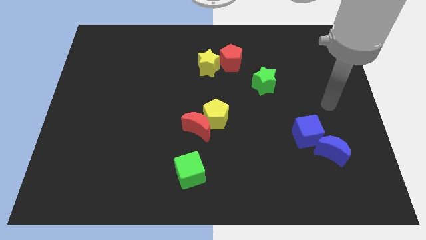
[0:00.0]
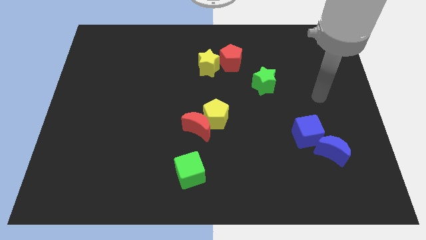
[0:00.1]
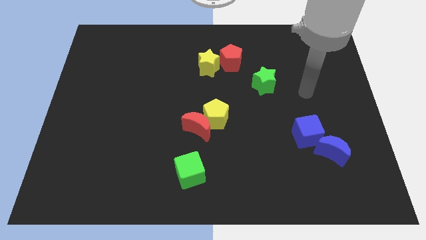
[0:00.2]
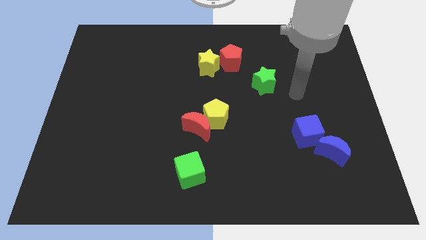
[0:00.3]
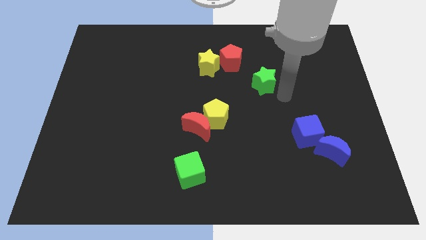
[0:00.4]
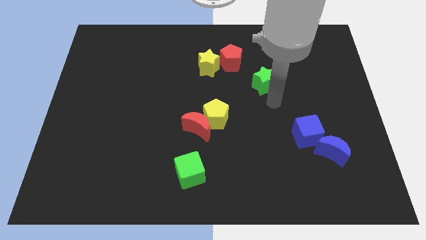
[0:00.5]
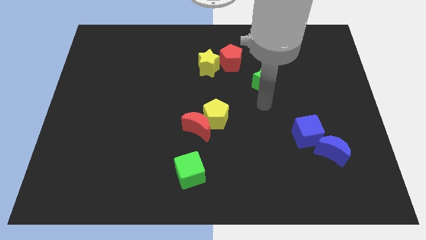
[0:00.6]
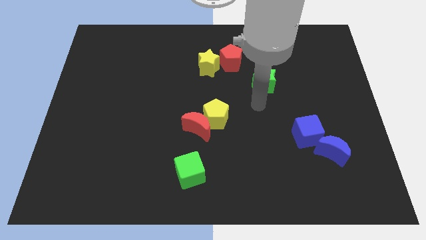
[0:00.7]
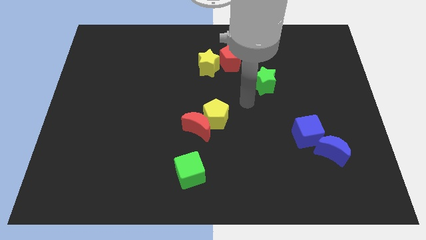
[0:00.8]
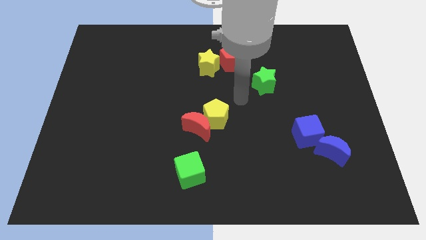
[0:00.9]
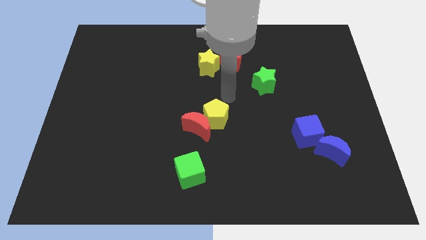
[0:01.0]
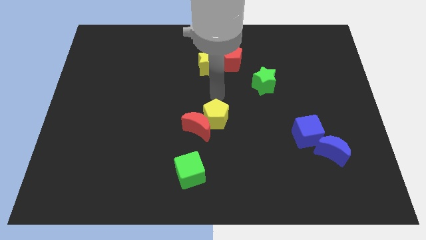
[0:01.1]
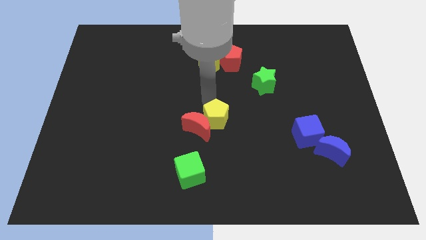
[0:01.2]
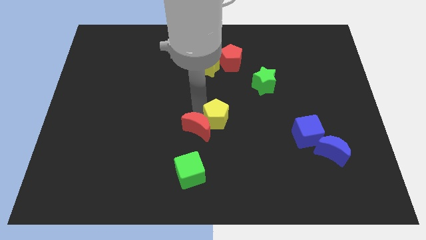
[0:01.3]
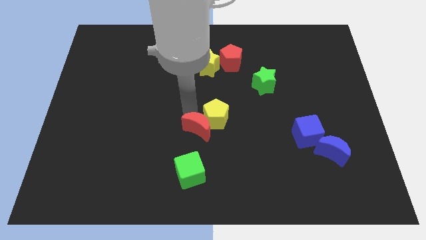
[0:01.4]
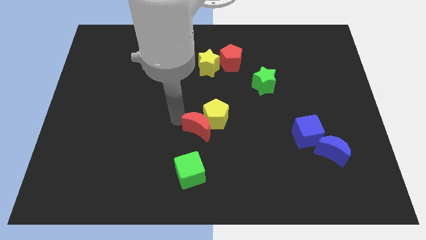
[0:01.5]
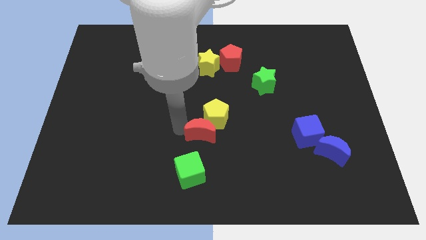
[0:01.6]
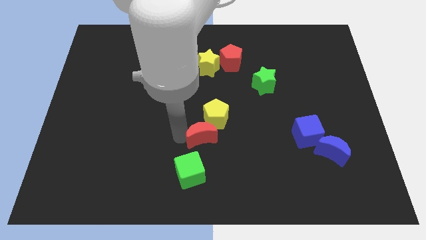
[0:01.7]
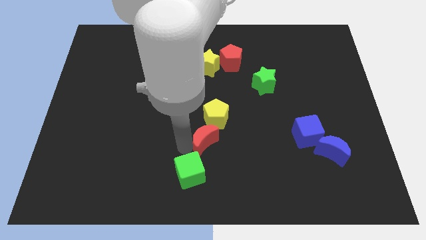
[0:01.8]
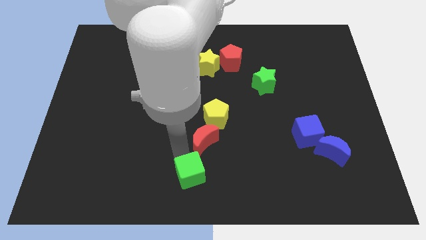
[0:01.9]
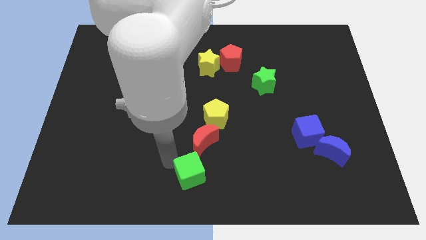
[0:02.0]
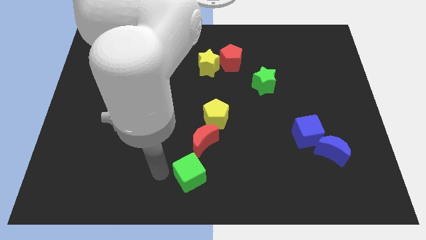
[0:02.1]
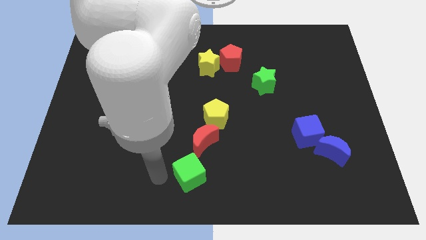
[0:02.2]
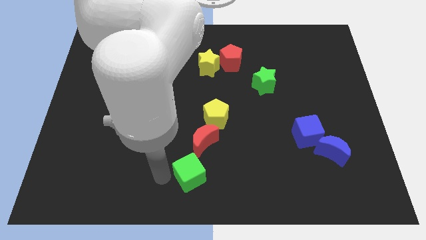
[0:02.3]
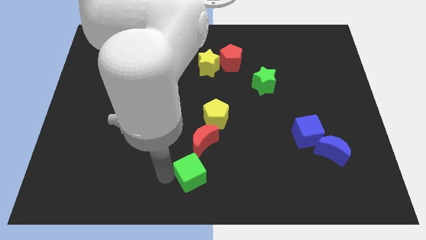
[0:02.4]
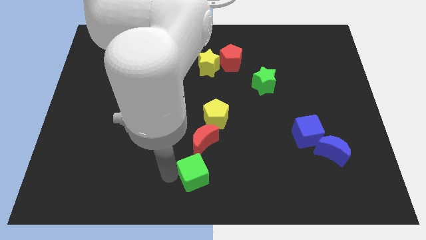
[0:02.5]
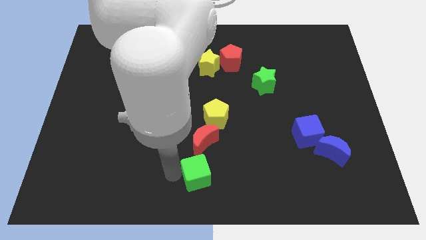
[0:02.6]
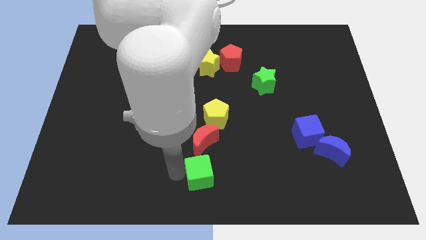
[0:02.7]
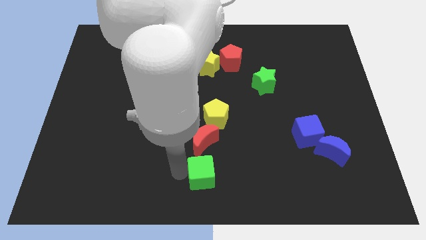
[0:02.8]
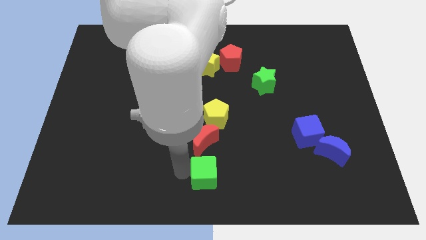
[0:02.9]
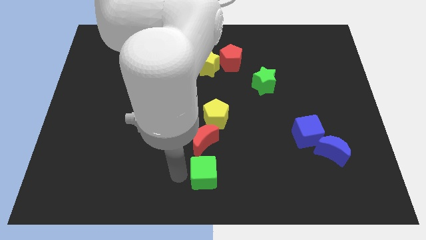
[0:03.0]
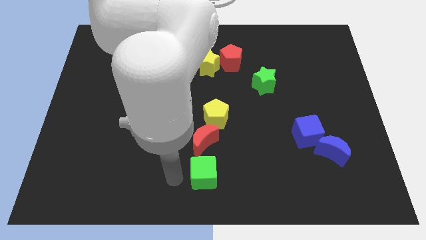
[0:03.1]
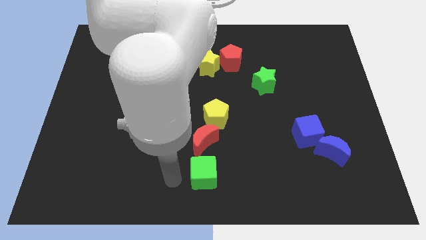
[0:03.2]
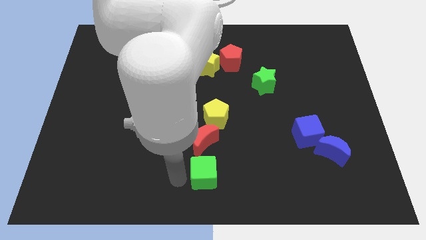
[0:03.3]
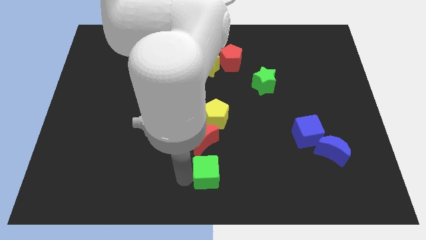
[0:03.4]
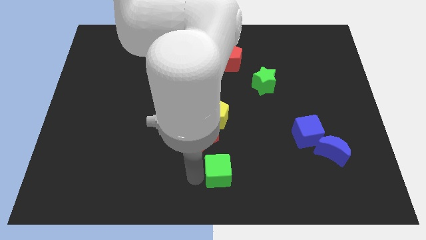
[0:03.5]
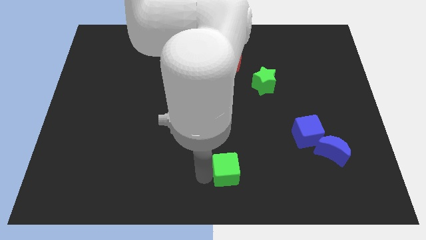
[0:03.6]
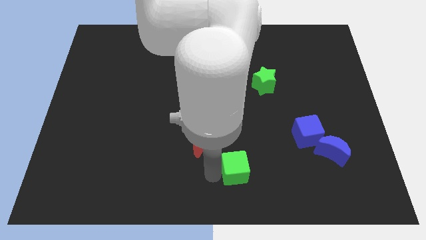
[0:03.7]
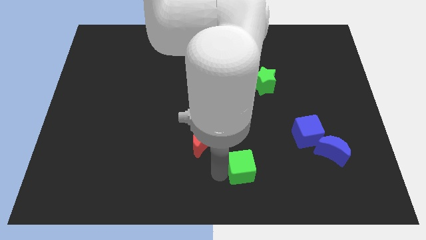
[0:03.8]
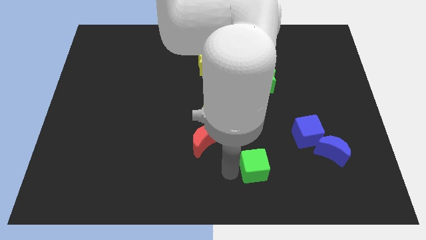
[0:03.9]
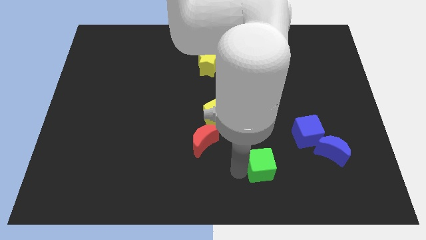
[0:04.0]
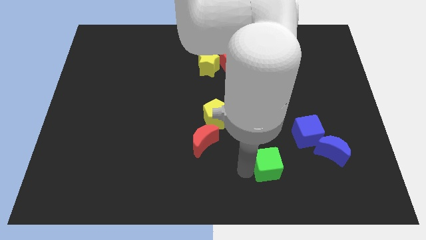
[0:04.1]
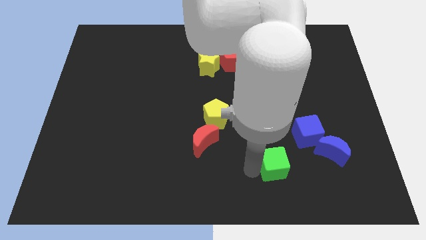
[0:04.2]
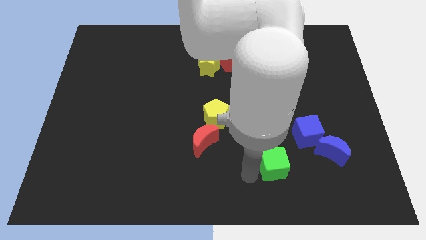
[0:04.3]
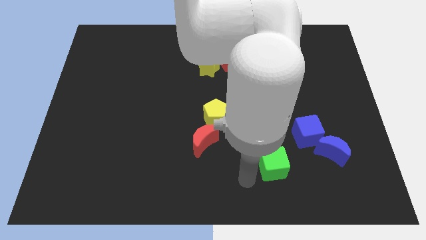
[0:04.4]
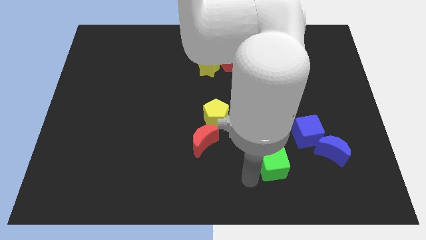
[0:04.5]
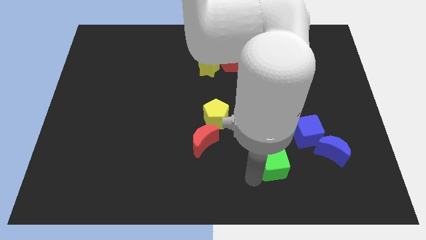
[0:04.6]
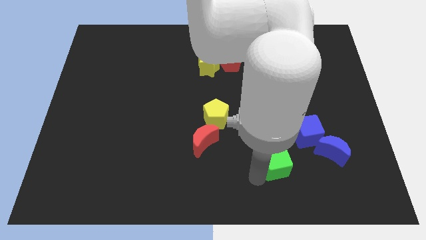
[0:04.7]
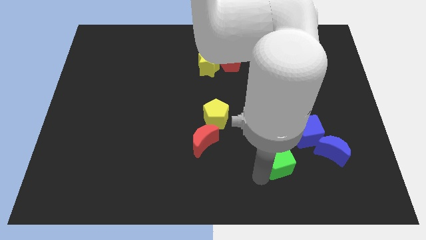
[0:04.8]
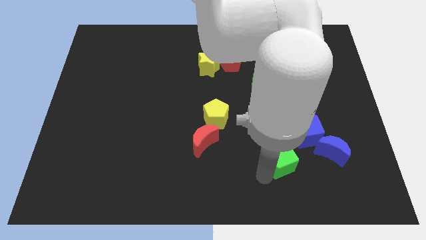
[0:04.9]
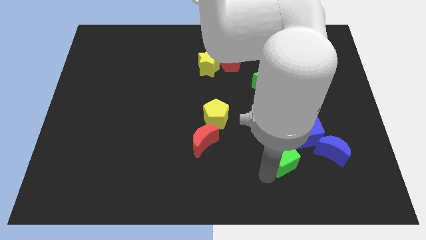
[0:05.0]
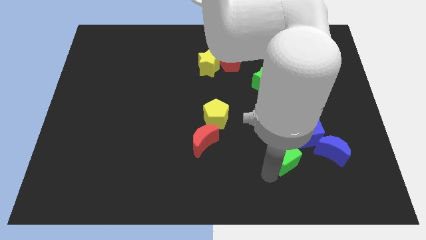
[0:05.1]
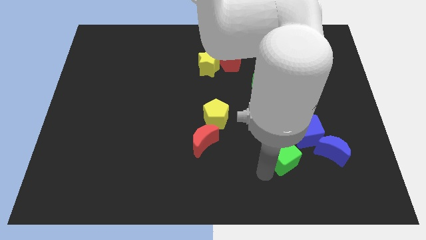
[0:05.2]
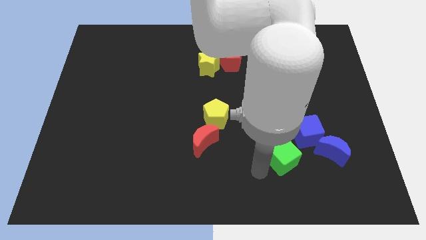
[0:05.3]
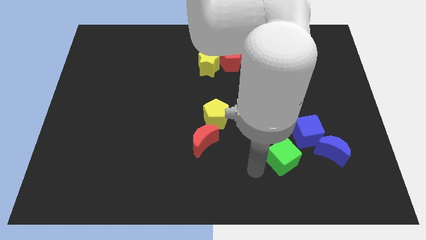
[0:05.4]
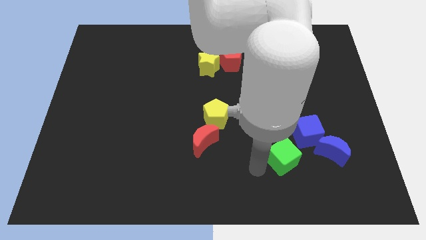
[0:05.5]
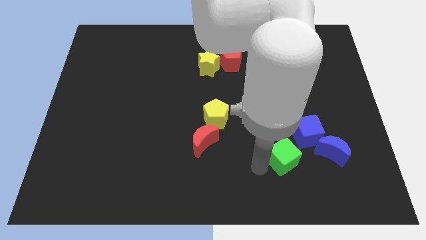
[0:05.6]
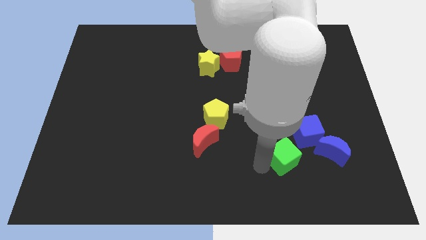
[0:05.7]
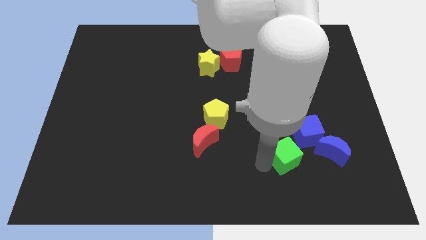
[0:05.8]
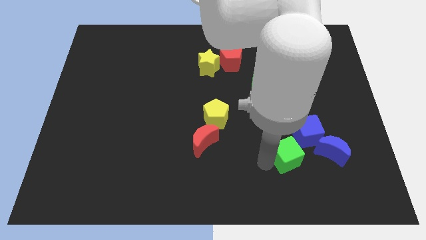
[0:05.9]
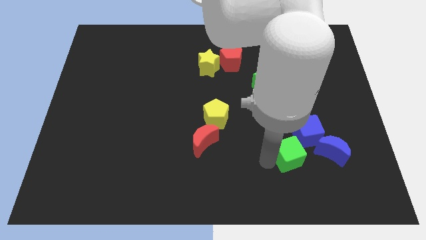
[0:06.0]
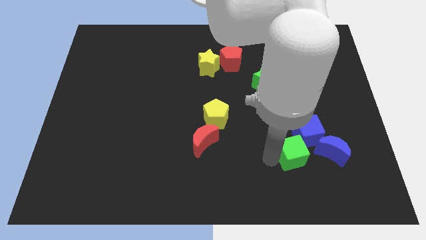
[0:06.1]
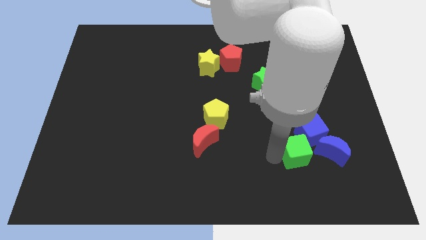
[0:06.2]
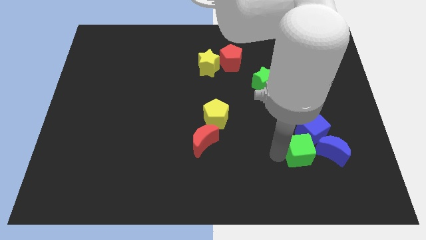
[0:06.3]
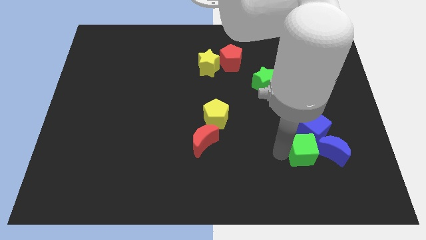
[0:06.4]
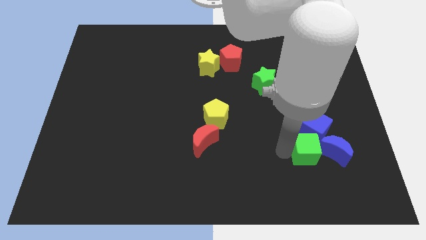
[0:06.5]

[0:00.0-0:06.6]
push the green cube towards the blue moon

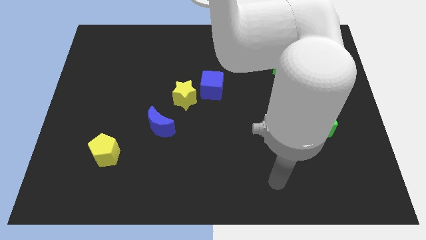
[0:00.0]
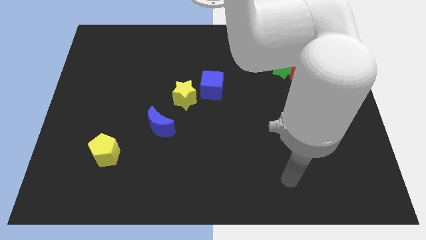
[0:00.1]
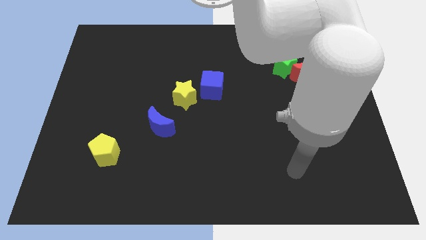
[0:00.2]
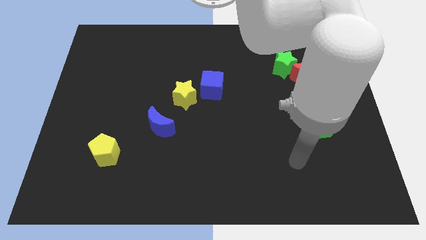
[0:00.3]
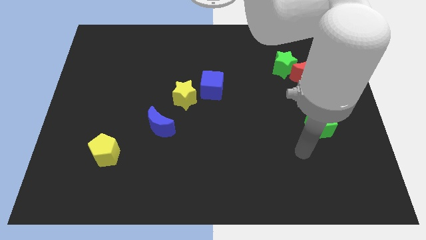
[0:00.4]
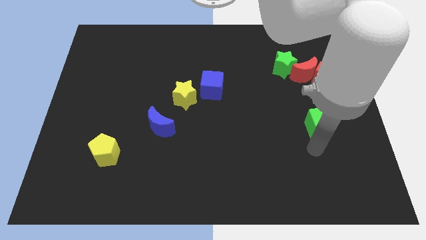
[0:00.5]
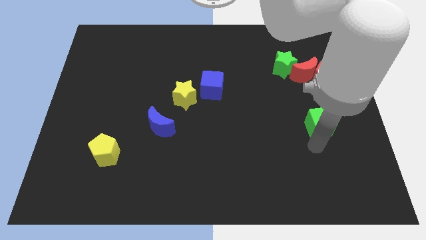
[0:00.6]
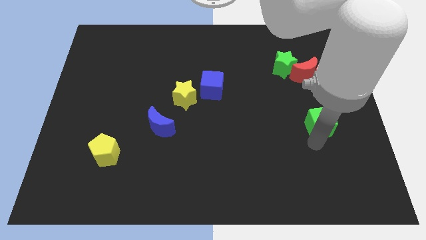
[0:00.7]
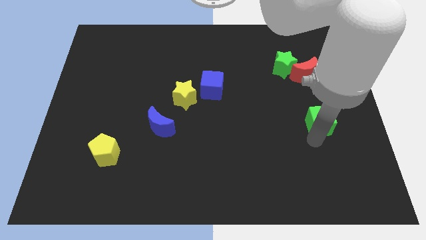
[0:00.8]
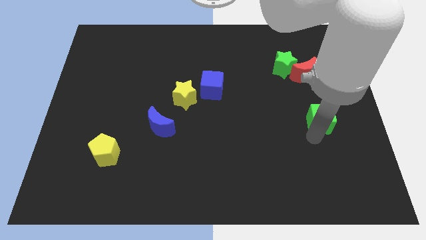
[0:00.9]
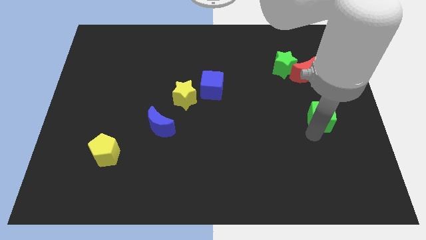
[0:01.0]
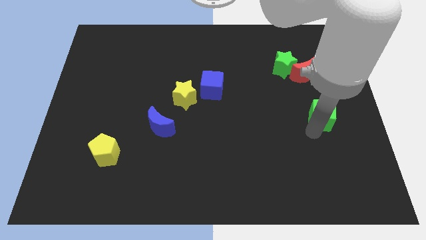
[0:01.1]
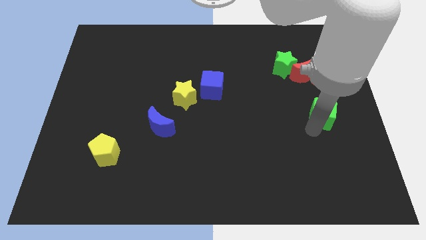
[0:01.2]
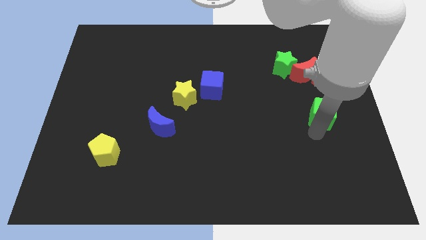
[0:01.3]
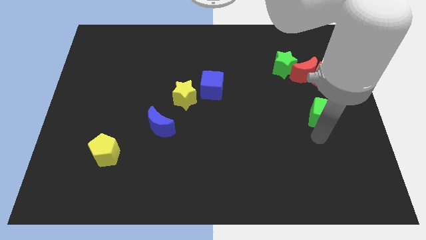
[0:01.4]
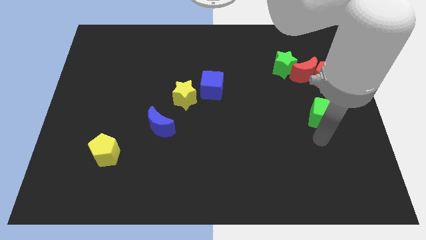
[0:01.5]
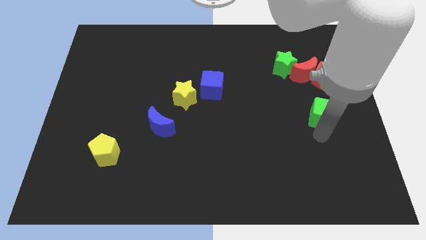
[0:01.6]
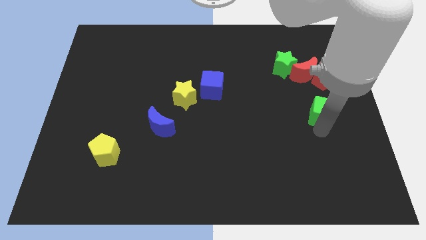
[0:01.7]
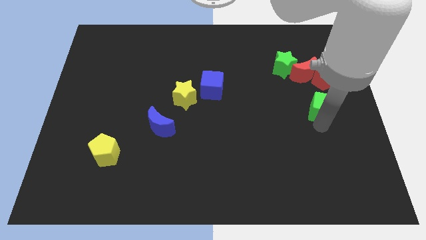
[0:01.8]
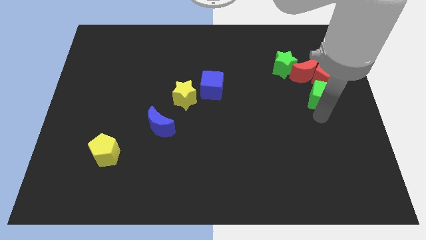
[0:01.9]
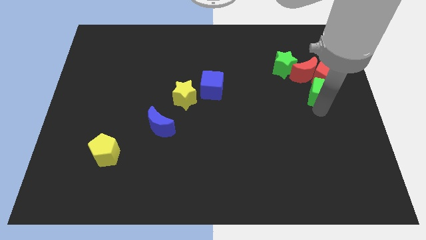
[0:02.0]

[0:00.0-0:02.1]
move the green cube towards the red pentagon
